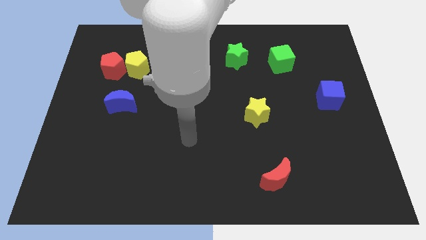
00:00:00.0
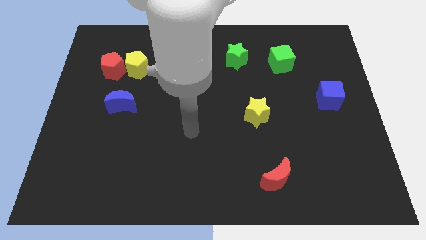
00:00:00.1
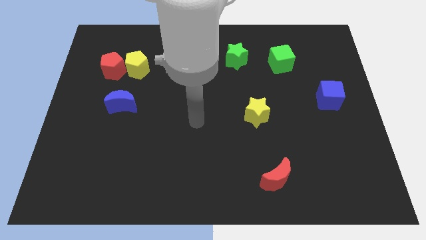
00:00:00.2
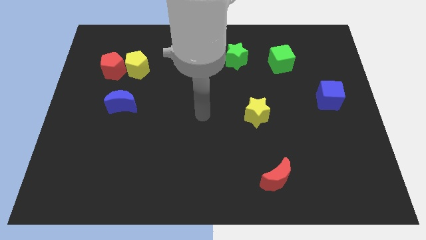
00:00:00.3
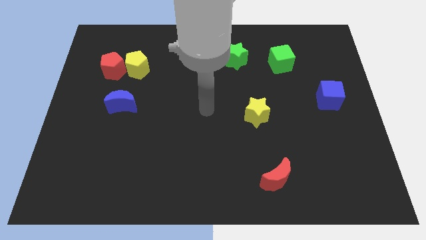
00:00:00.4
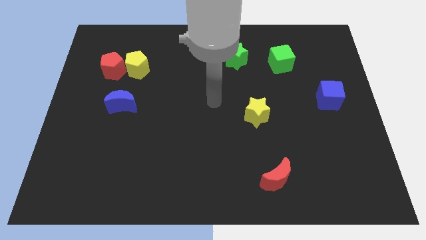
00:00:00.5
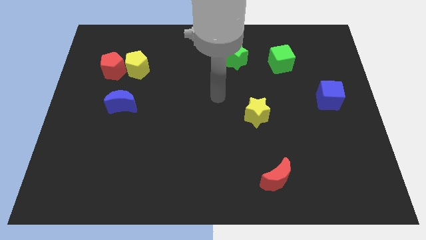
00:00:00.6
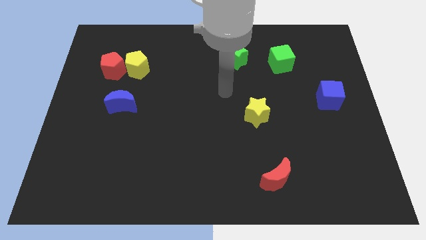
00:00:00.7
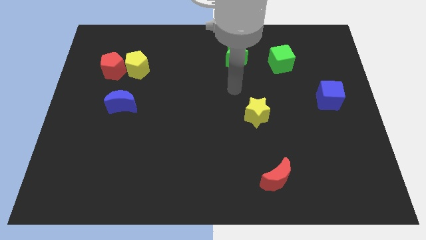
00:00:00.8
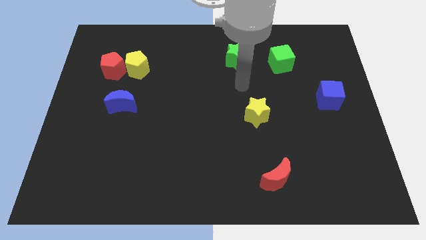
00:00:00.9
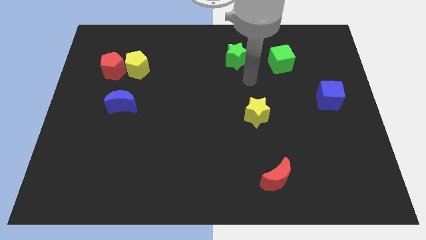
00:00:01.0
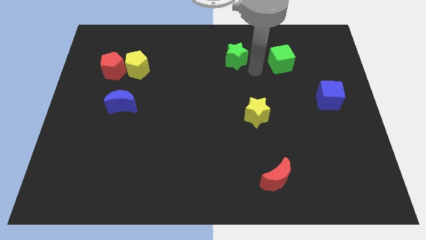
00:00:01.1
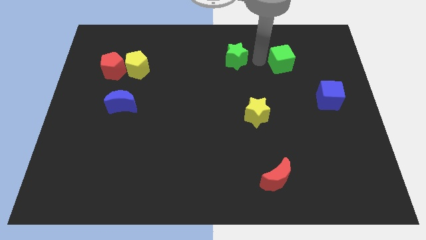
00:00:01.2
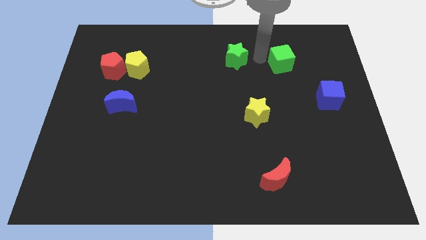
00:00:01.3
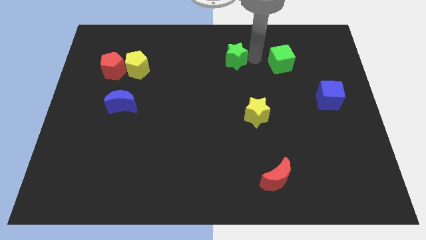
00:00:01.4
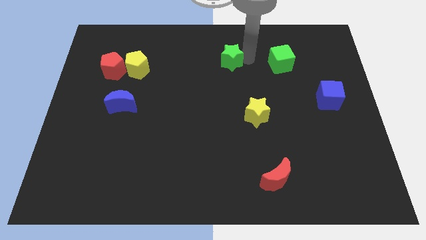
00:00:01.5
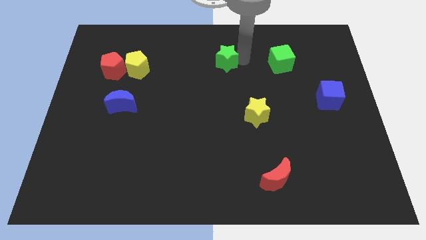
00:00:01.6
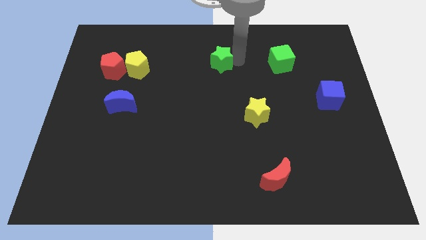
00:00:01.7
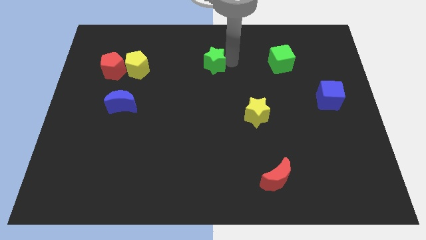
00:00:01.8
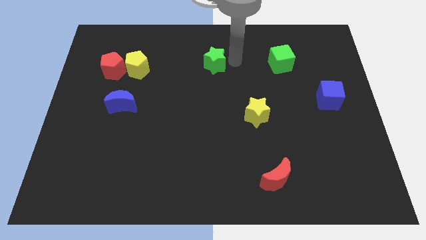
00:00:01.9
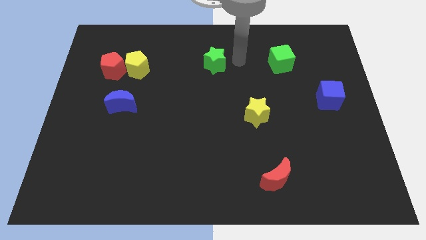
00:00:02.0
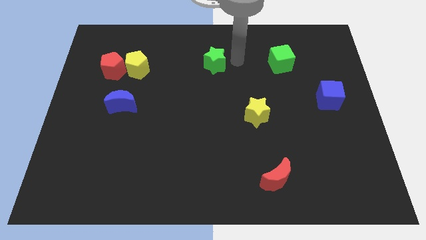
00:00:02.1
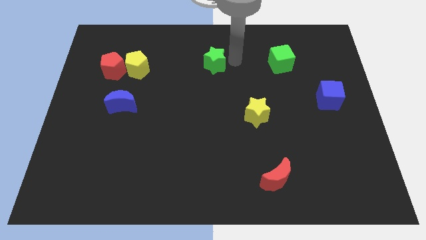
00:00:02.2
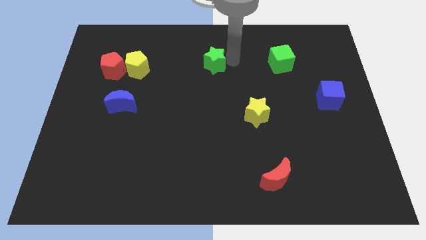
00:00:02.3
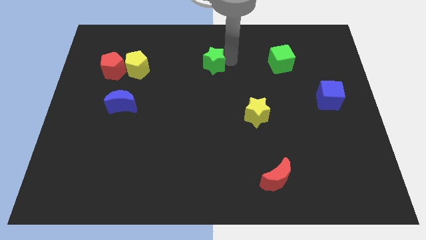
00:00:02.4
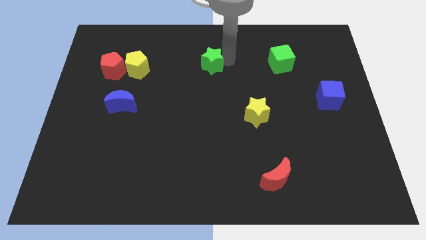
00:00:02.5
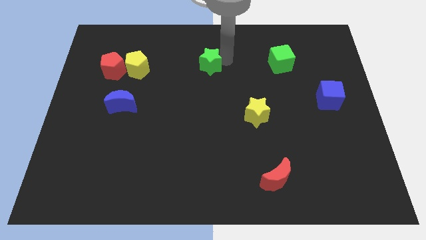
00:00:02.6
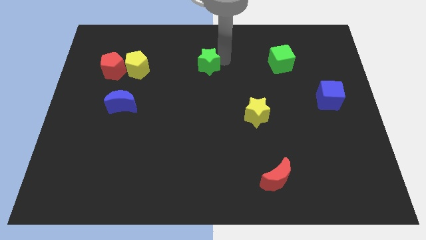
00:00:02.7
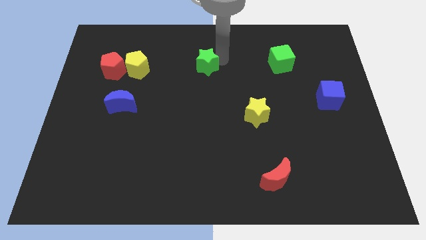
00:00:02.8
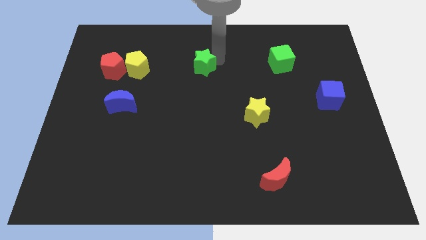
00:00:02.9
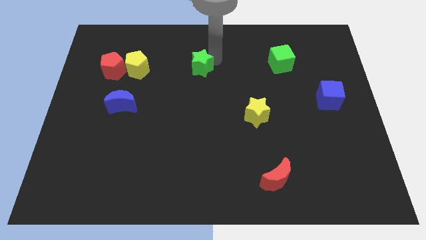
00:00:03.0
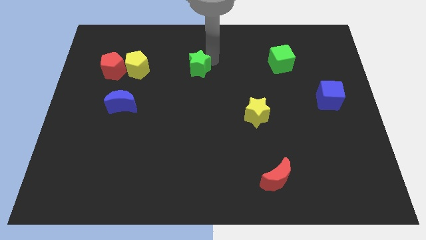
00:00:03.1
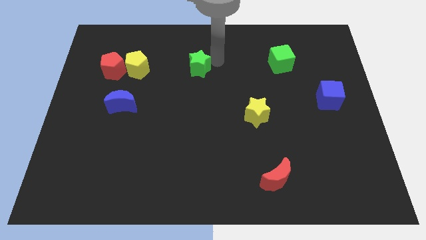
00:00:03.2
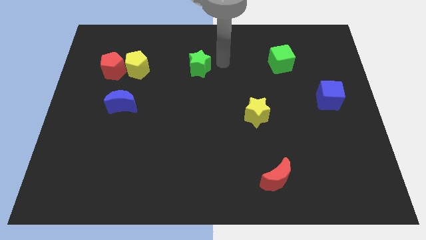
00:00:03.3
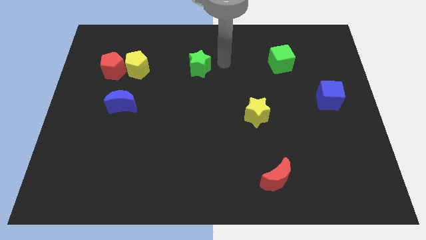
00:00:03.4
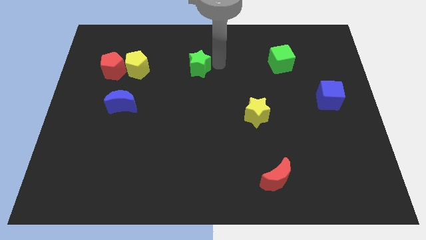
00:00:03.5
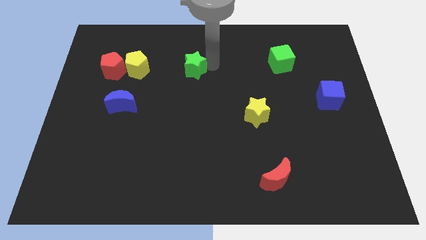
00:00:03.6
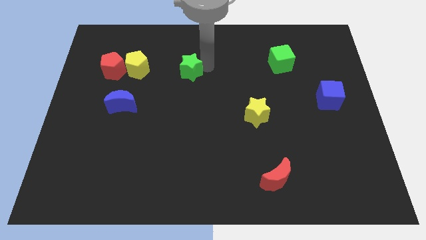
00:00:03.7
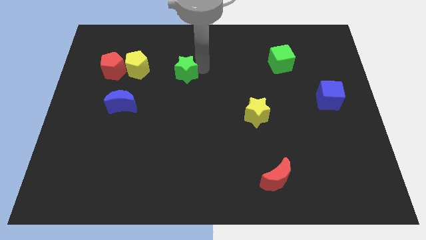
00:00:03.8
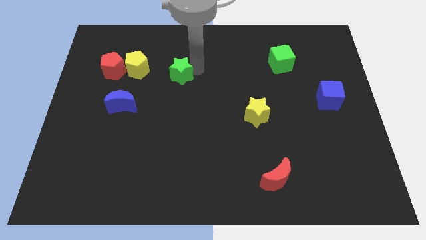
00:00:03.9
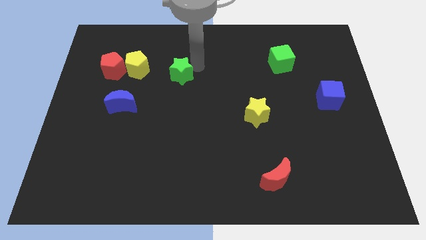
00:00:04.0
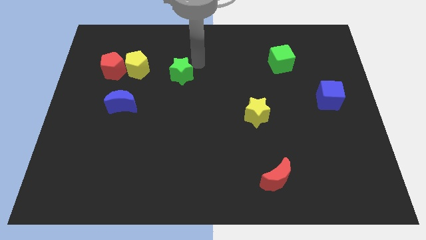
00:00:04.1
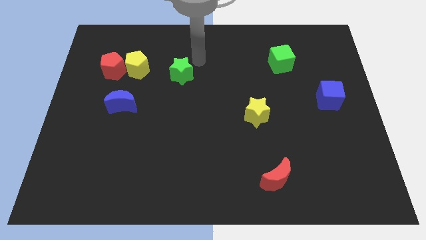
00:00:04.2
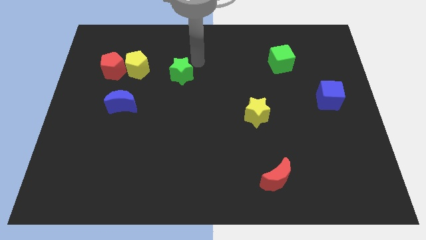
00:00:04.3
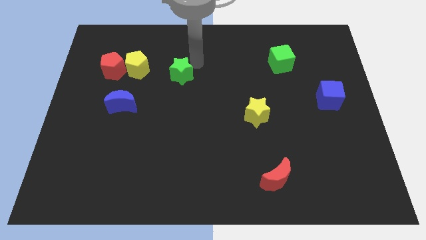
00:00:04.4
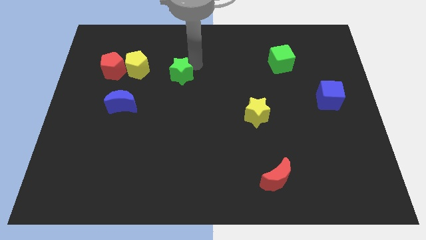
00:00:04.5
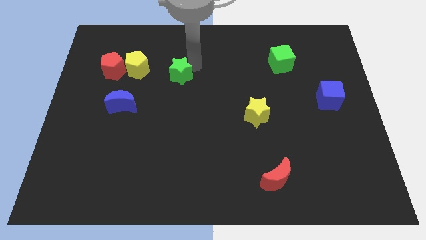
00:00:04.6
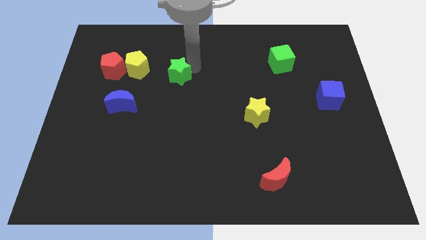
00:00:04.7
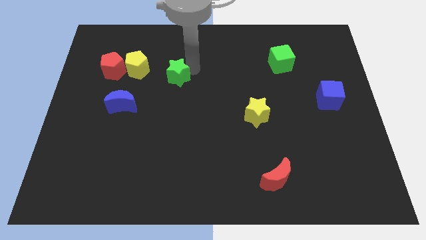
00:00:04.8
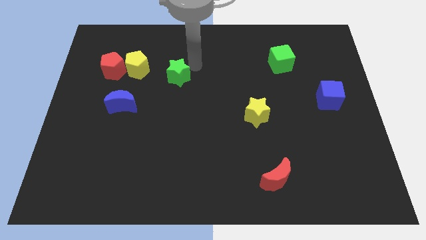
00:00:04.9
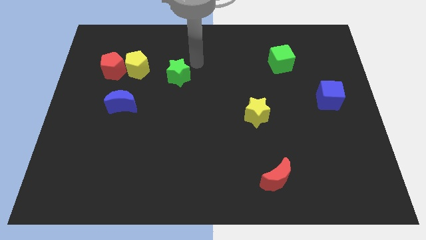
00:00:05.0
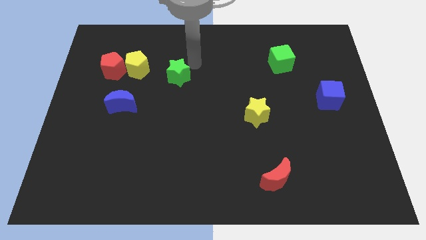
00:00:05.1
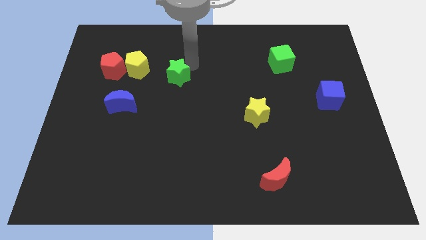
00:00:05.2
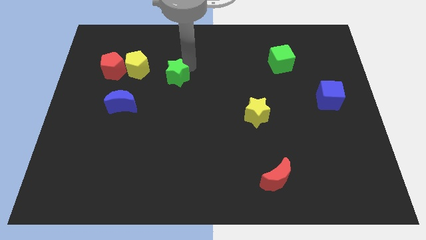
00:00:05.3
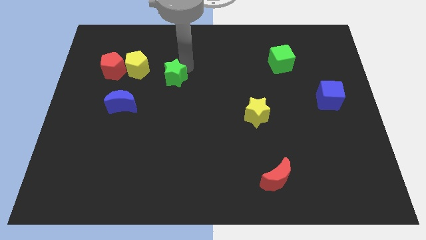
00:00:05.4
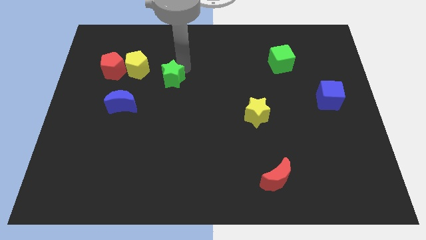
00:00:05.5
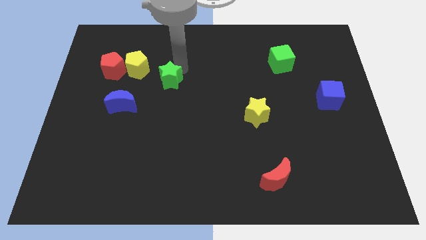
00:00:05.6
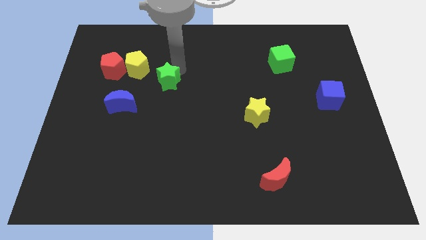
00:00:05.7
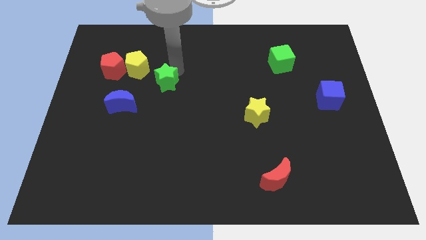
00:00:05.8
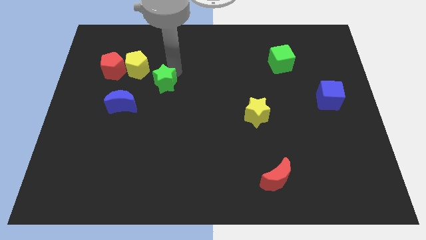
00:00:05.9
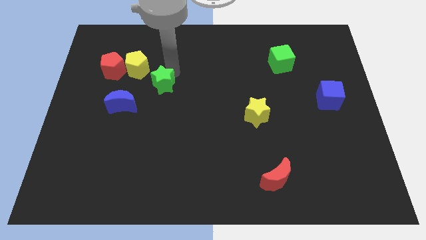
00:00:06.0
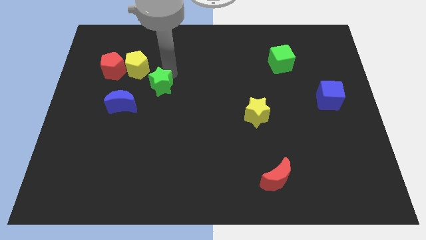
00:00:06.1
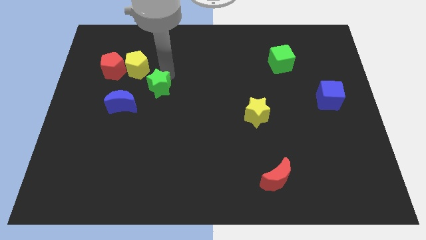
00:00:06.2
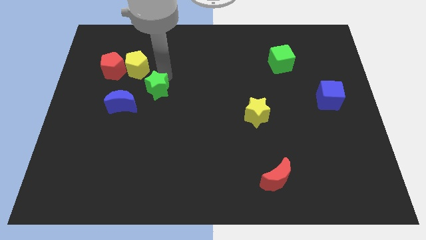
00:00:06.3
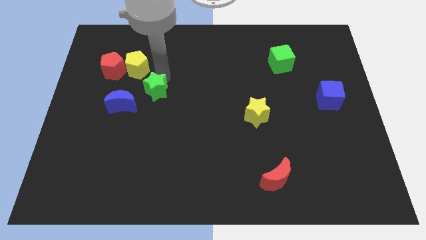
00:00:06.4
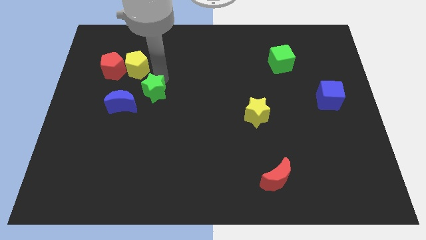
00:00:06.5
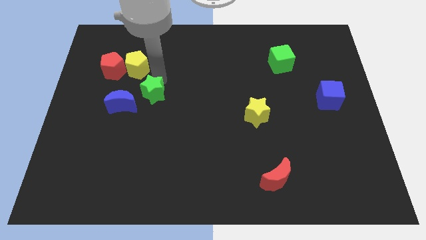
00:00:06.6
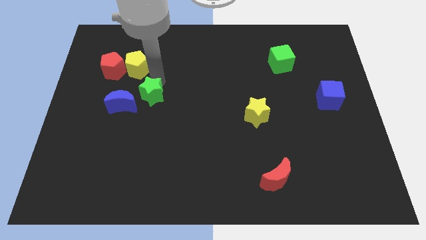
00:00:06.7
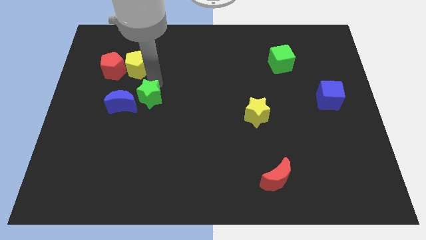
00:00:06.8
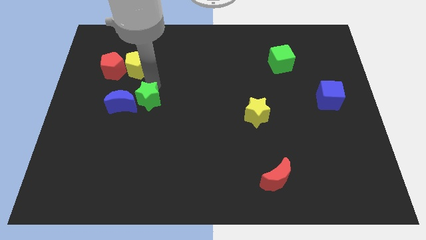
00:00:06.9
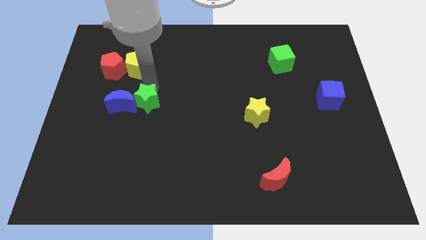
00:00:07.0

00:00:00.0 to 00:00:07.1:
put the green star diagonally down and to the right of the blue moon
